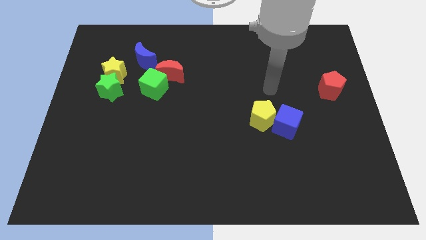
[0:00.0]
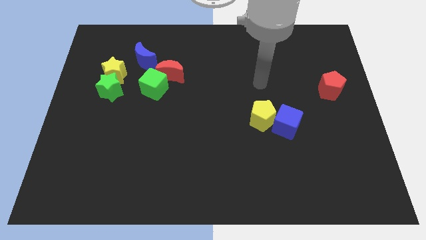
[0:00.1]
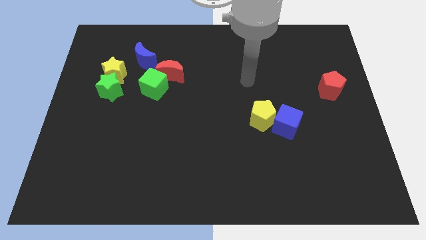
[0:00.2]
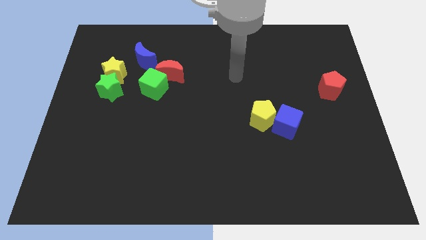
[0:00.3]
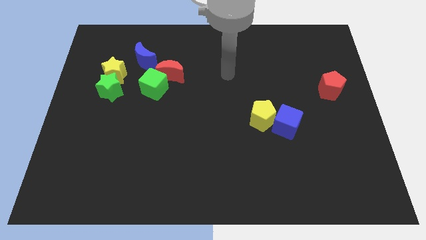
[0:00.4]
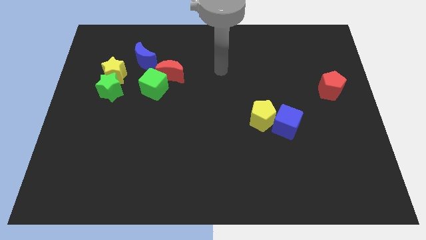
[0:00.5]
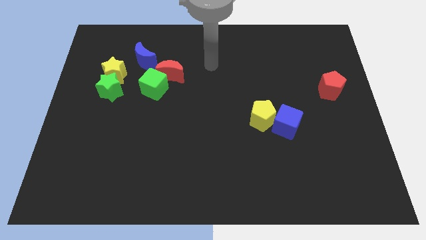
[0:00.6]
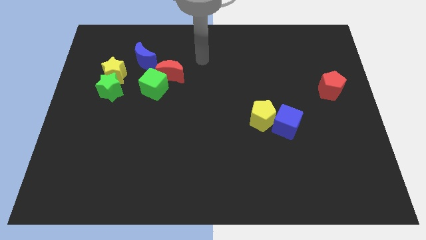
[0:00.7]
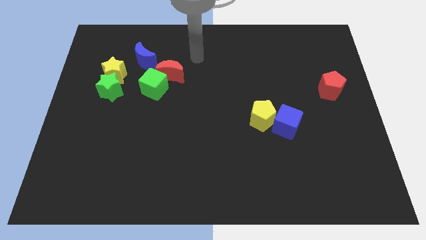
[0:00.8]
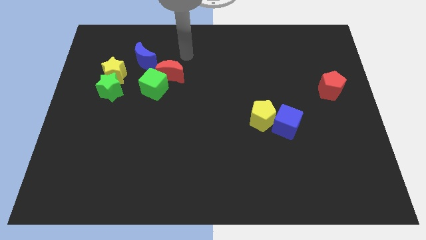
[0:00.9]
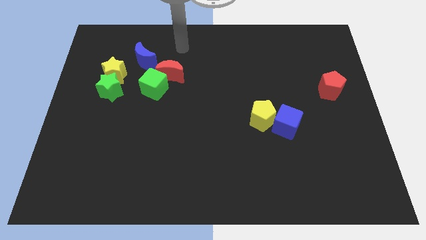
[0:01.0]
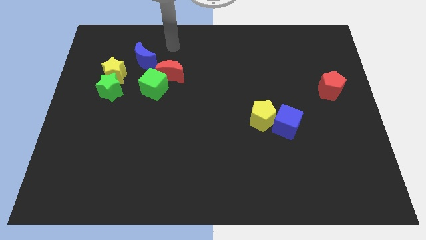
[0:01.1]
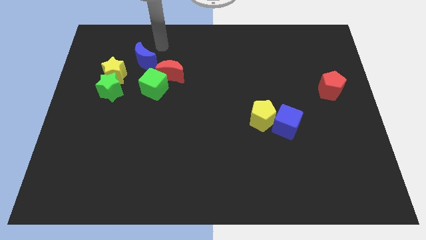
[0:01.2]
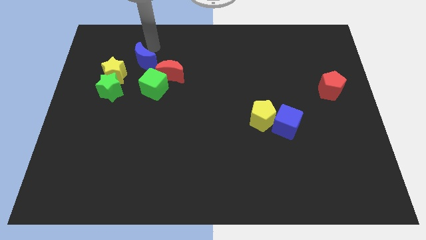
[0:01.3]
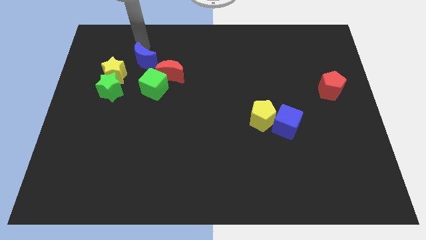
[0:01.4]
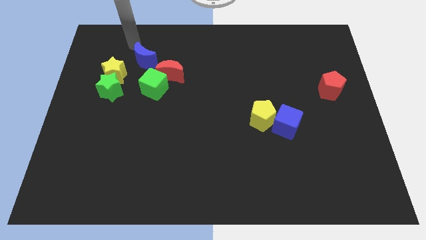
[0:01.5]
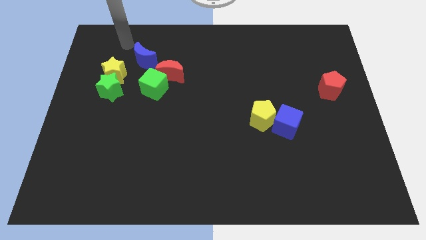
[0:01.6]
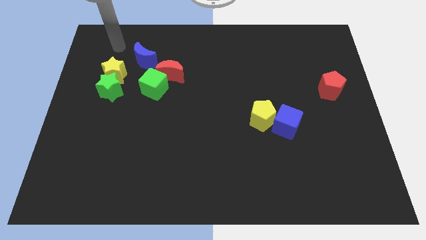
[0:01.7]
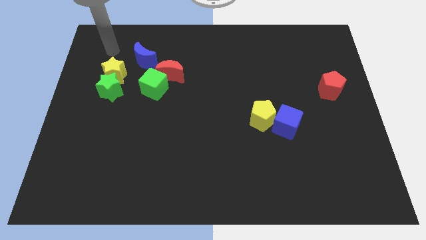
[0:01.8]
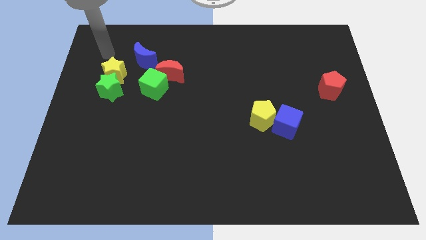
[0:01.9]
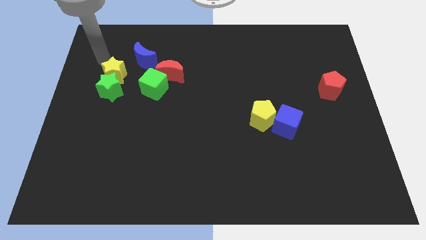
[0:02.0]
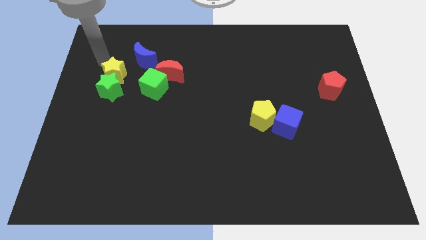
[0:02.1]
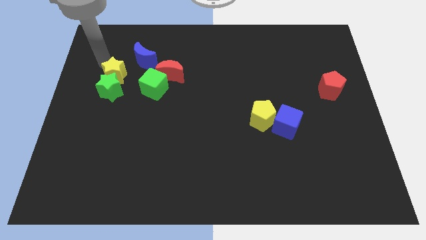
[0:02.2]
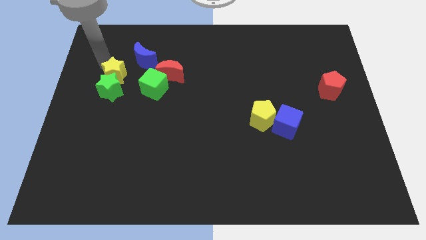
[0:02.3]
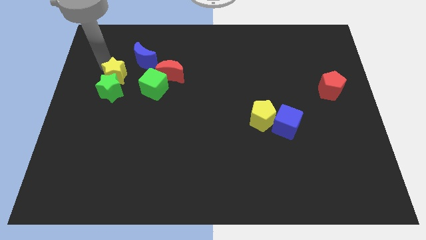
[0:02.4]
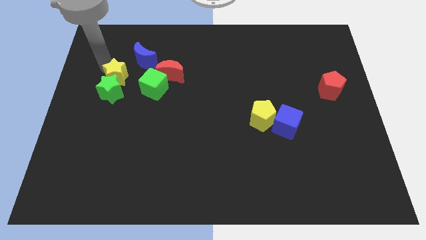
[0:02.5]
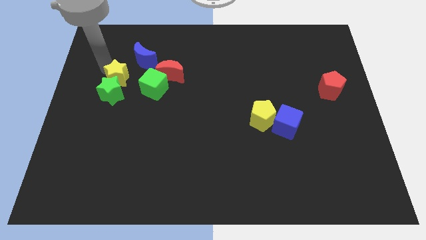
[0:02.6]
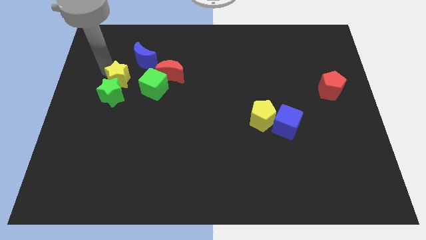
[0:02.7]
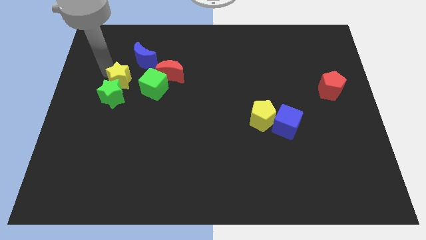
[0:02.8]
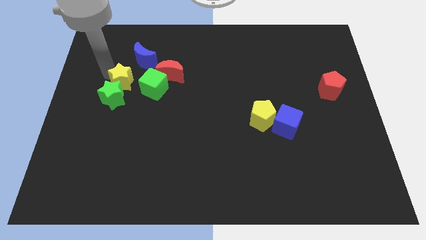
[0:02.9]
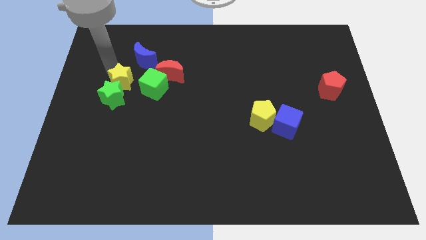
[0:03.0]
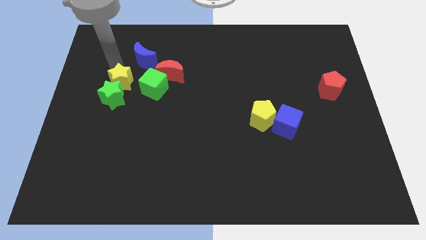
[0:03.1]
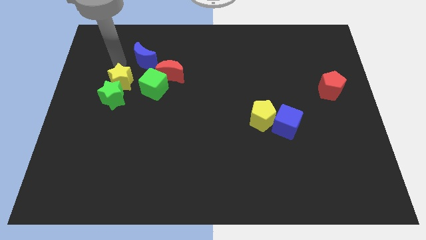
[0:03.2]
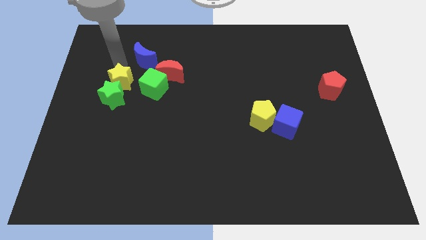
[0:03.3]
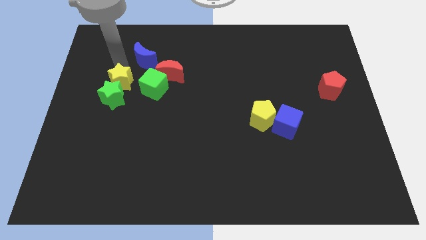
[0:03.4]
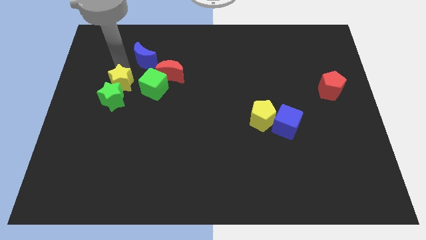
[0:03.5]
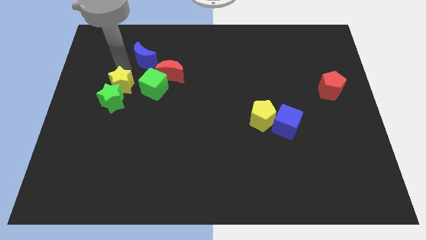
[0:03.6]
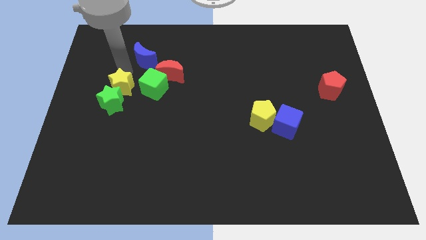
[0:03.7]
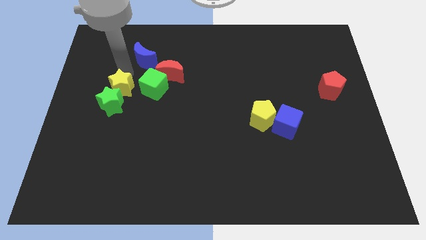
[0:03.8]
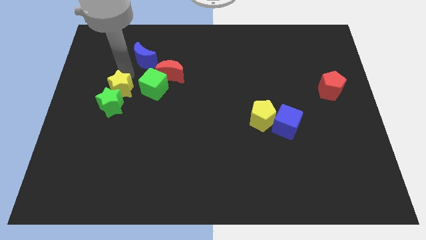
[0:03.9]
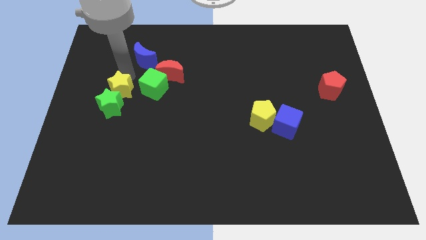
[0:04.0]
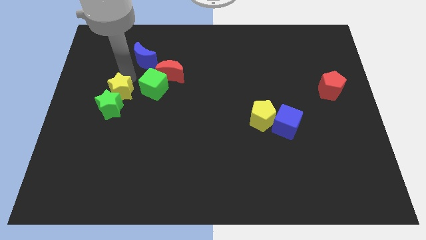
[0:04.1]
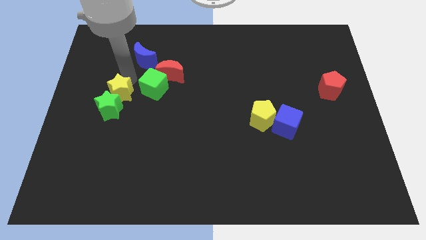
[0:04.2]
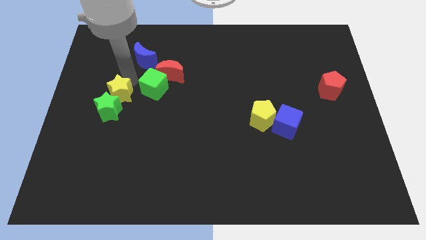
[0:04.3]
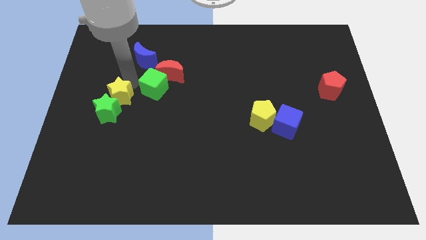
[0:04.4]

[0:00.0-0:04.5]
push the yellow star downwards a bit

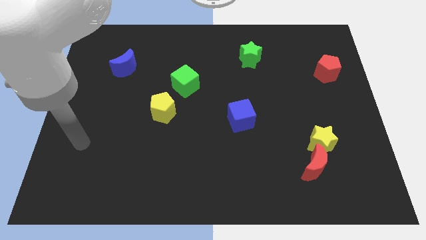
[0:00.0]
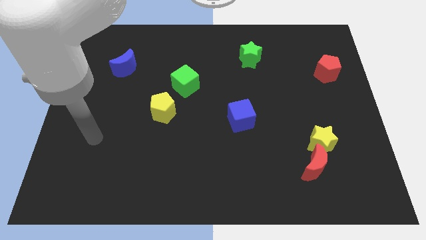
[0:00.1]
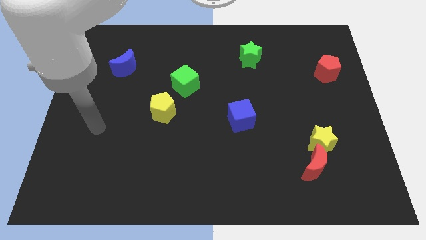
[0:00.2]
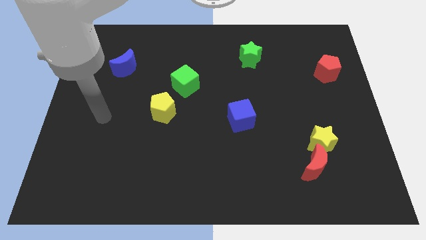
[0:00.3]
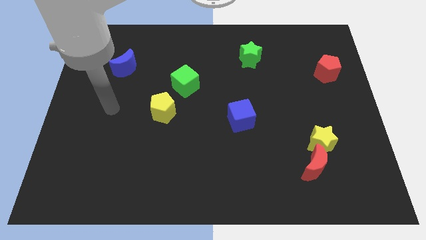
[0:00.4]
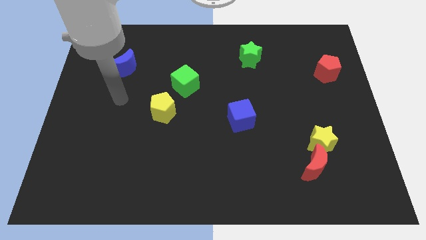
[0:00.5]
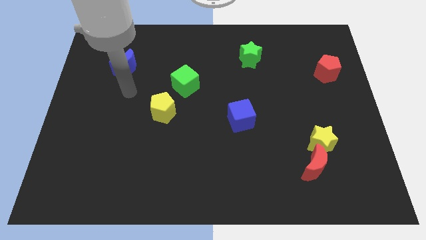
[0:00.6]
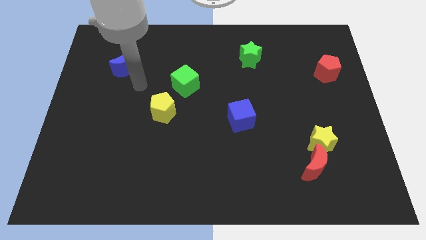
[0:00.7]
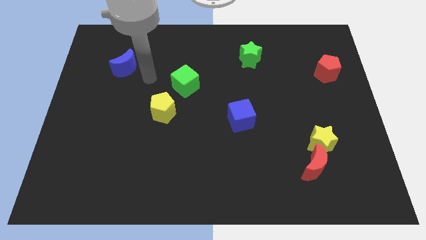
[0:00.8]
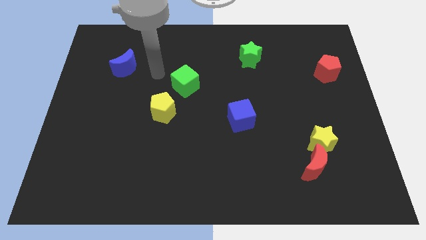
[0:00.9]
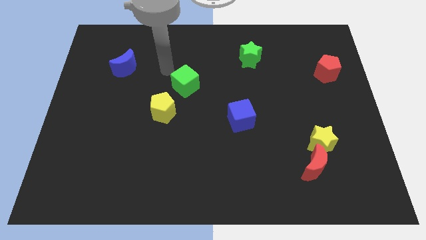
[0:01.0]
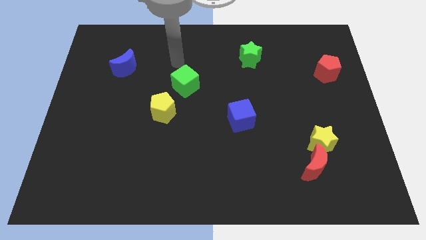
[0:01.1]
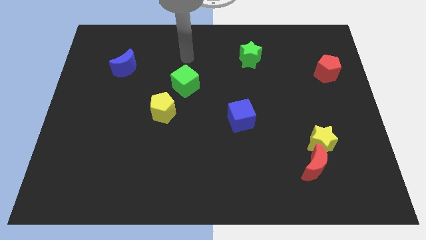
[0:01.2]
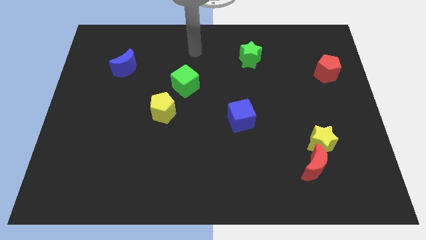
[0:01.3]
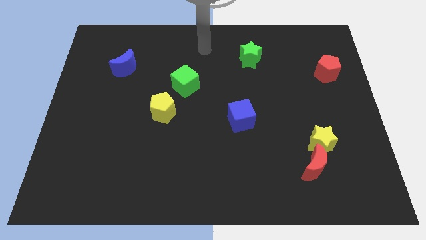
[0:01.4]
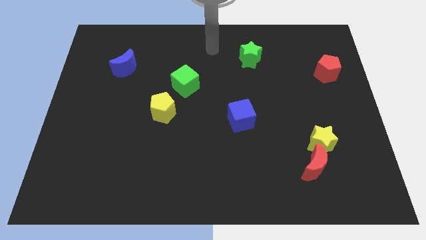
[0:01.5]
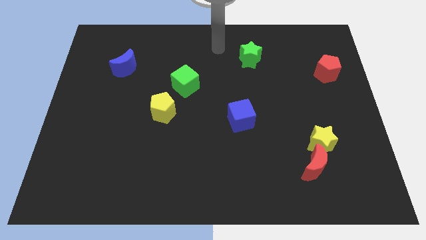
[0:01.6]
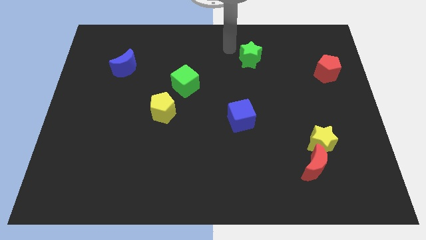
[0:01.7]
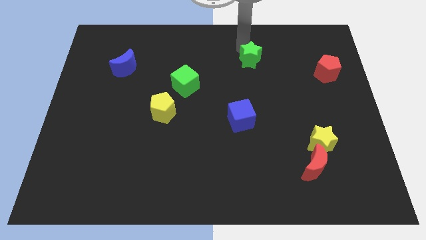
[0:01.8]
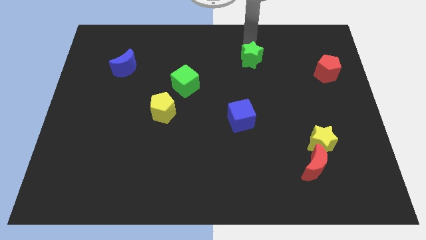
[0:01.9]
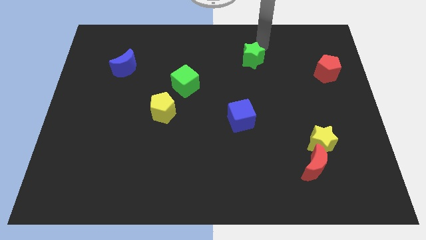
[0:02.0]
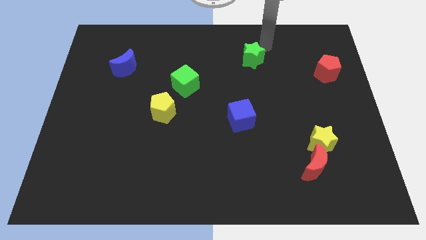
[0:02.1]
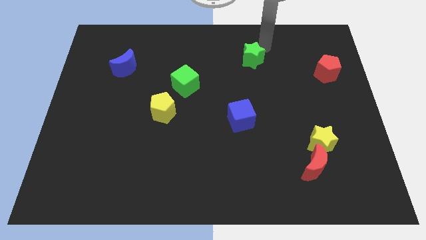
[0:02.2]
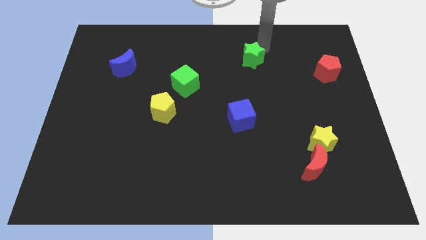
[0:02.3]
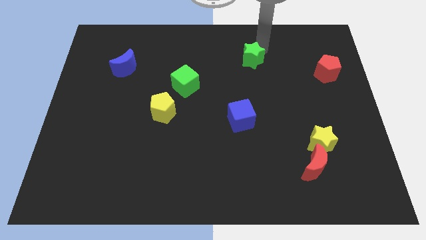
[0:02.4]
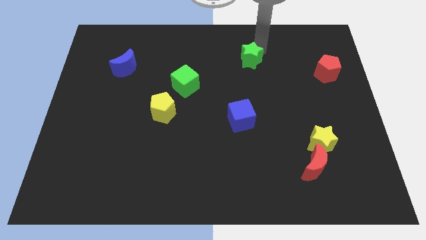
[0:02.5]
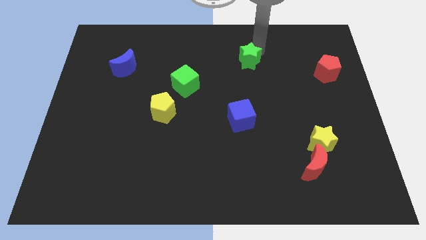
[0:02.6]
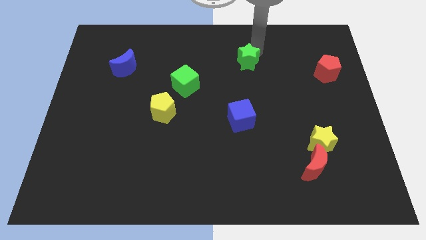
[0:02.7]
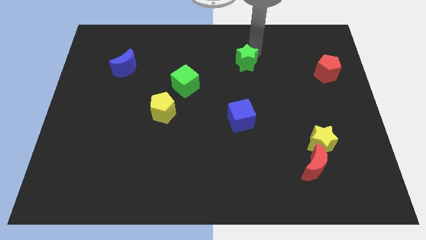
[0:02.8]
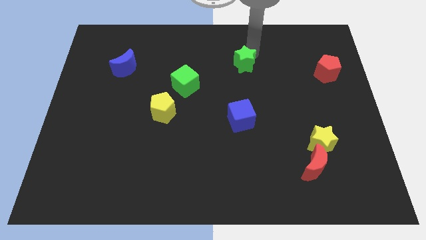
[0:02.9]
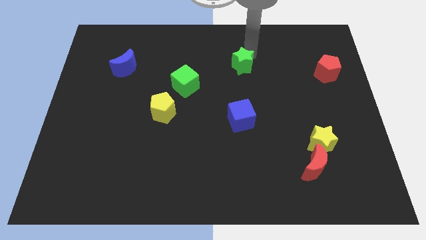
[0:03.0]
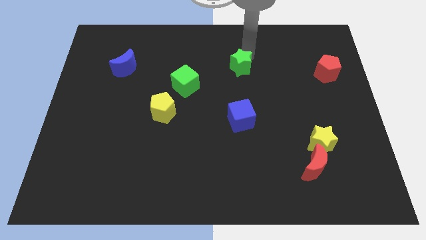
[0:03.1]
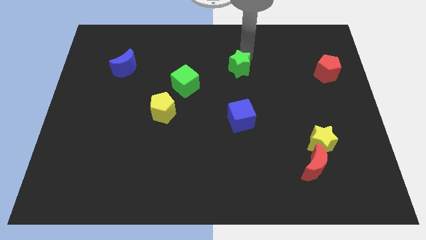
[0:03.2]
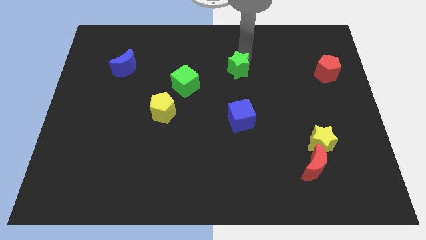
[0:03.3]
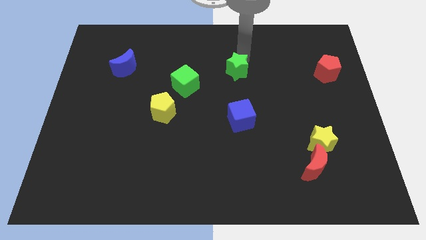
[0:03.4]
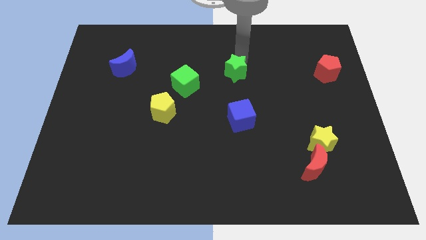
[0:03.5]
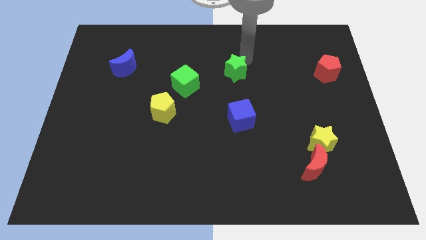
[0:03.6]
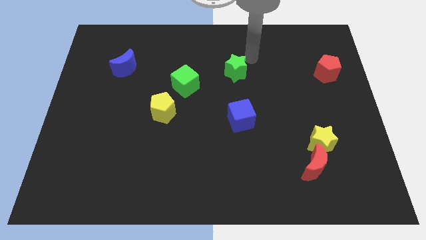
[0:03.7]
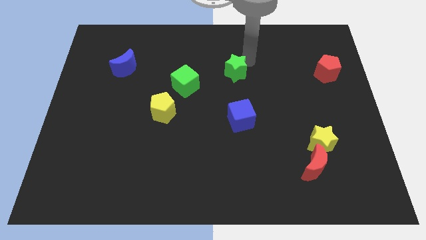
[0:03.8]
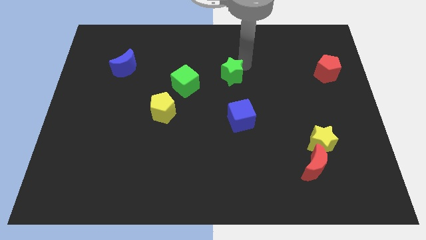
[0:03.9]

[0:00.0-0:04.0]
slide the green star down and to the left a bit
